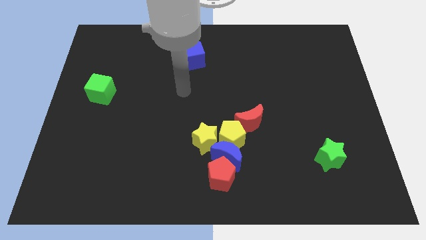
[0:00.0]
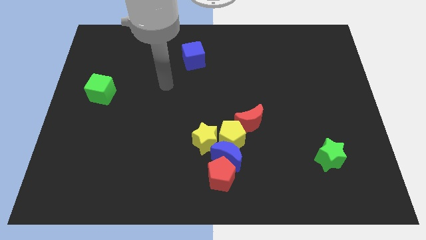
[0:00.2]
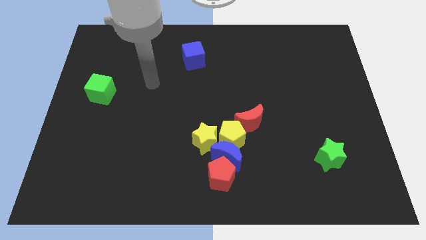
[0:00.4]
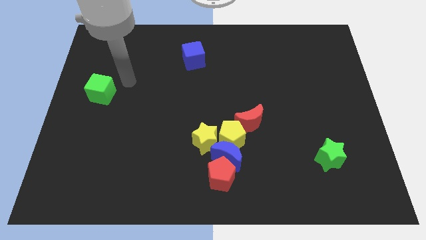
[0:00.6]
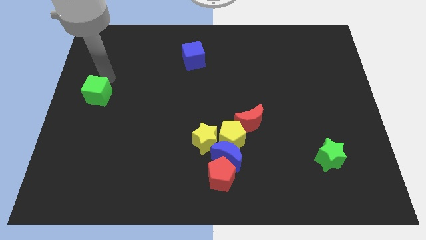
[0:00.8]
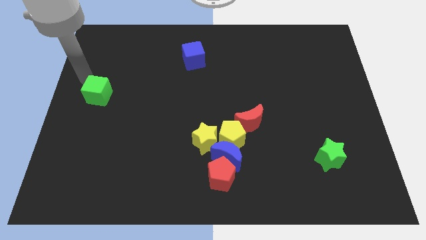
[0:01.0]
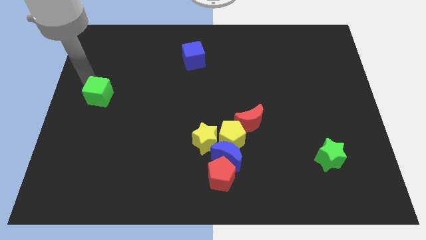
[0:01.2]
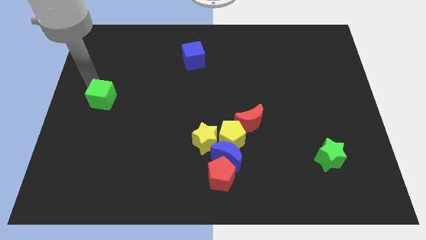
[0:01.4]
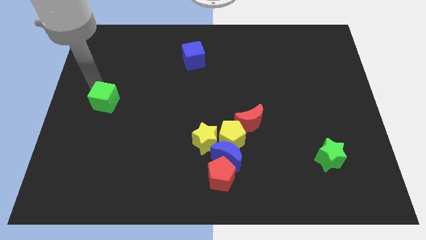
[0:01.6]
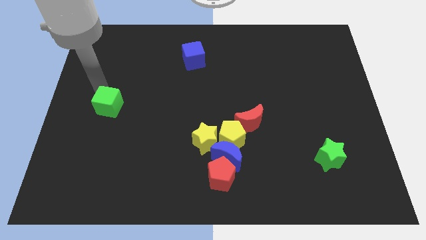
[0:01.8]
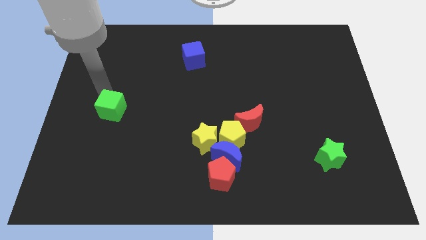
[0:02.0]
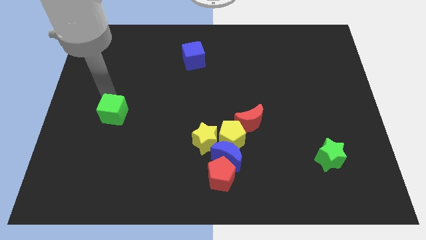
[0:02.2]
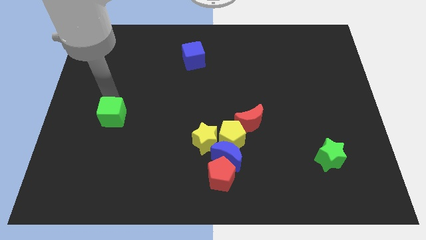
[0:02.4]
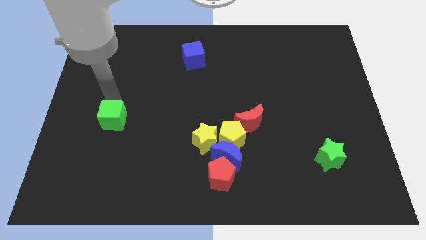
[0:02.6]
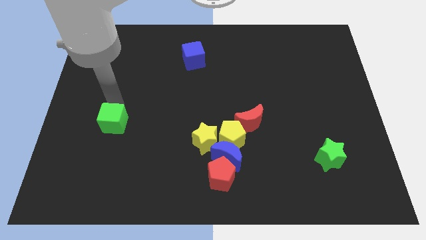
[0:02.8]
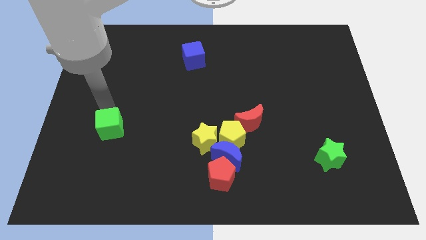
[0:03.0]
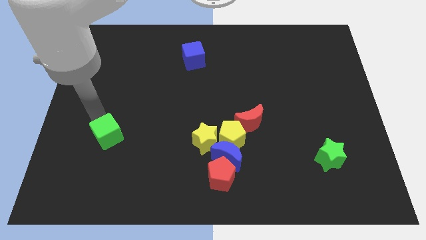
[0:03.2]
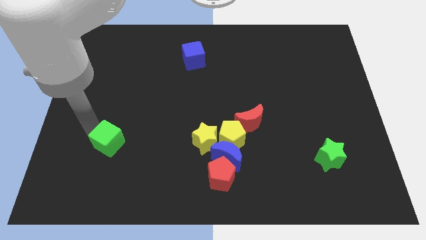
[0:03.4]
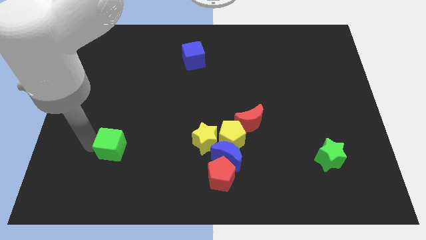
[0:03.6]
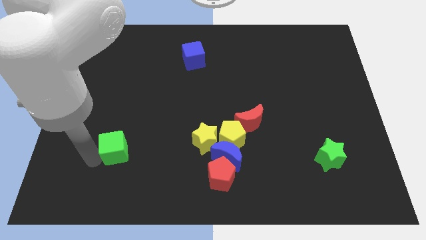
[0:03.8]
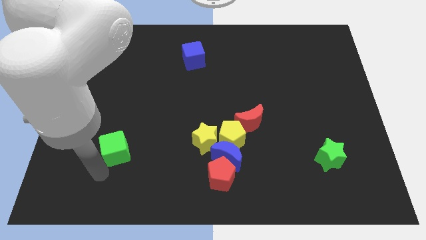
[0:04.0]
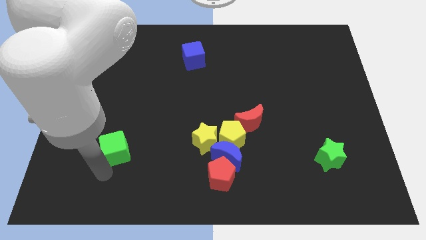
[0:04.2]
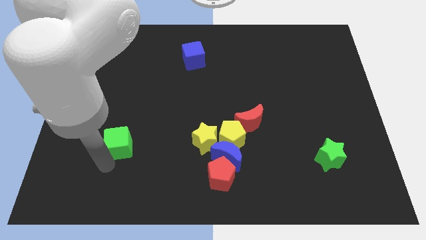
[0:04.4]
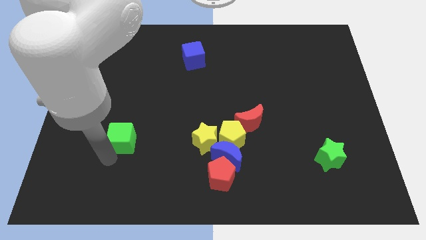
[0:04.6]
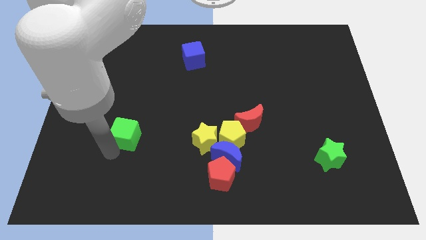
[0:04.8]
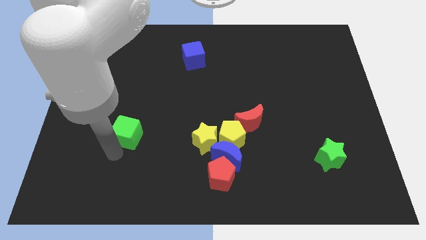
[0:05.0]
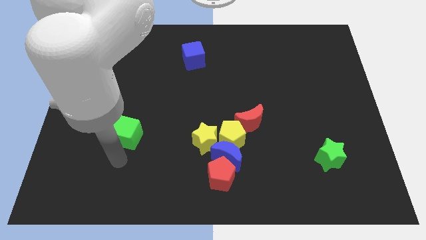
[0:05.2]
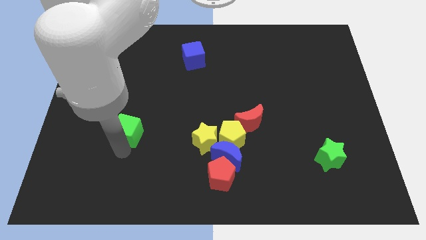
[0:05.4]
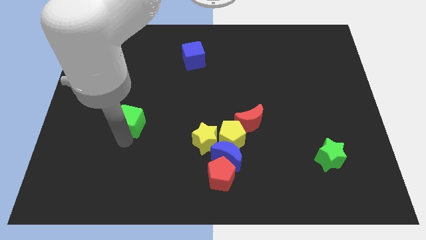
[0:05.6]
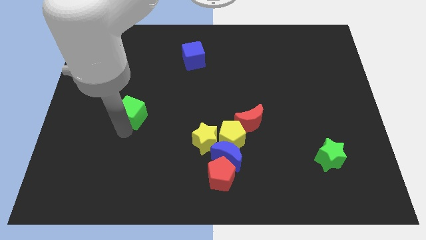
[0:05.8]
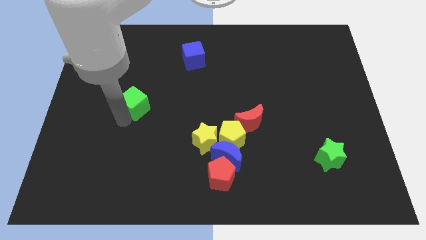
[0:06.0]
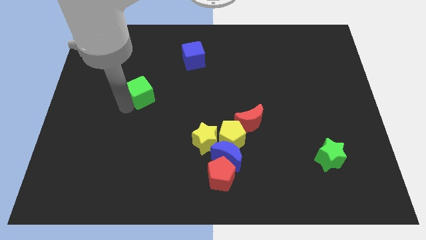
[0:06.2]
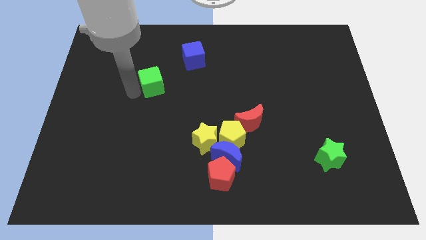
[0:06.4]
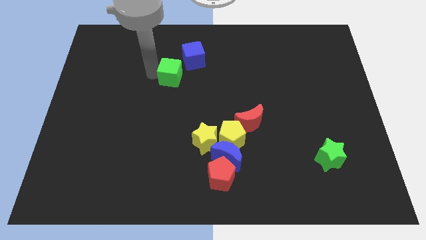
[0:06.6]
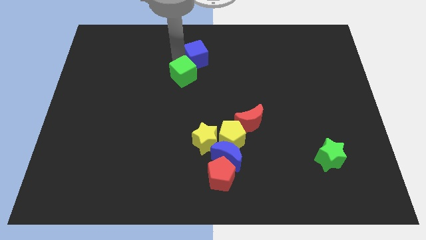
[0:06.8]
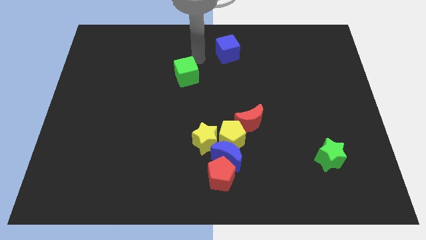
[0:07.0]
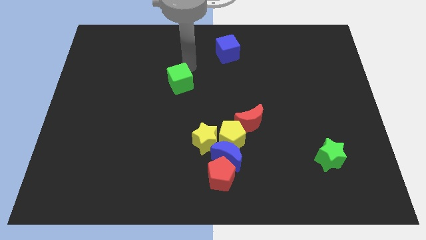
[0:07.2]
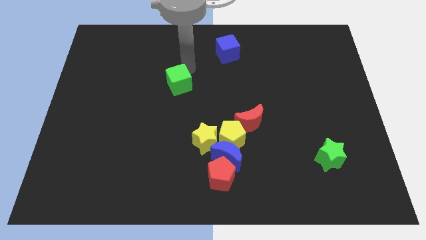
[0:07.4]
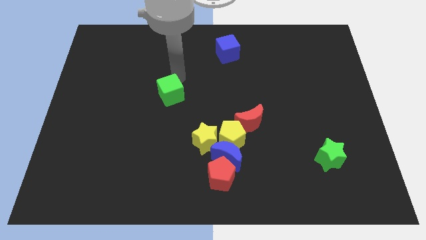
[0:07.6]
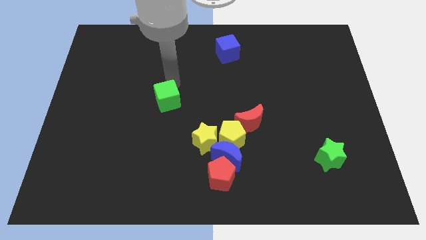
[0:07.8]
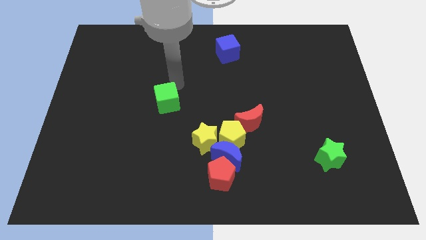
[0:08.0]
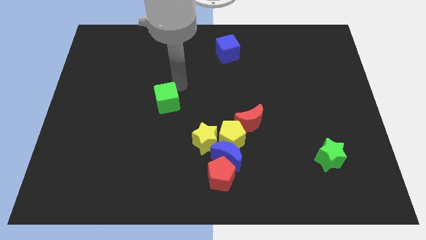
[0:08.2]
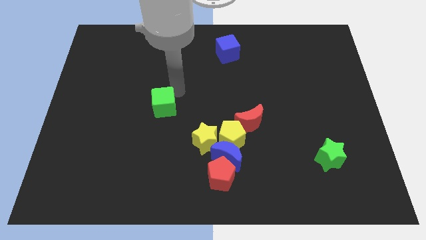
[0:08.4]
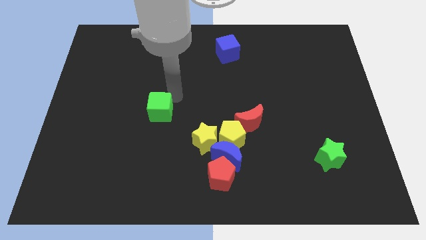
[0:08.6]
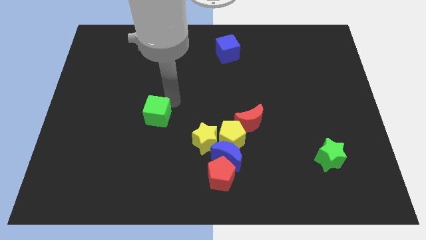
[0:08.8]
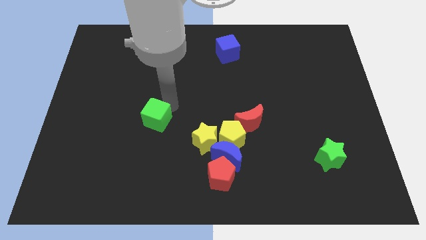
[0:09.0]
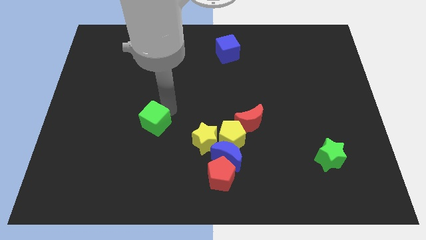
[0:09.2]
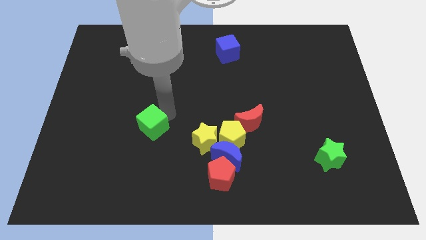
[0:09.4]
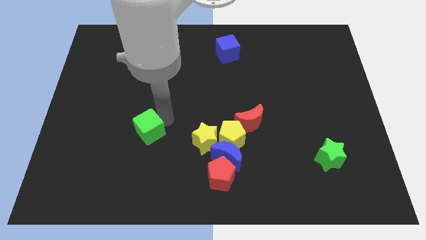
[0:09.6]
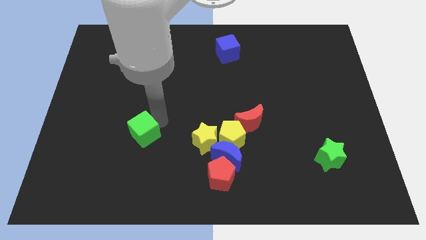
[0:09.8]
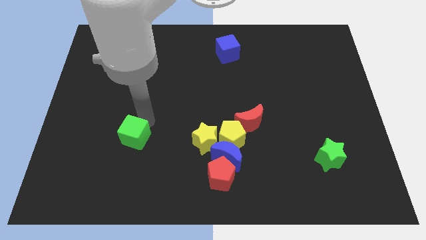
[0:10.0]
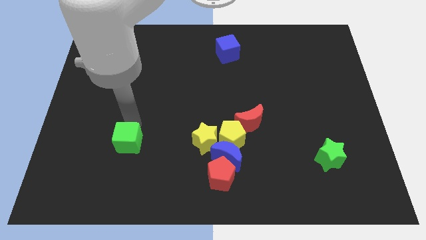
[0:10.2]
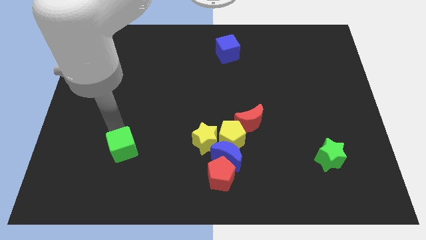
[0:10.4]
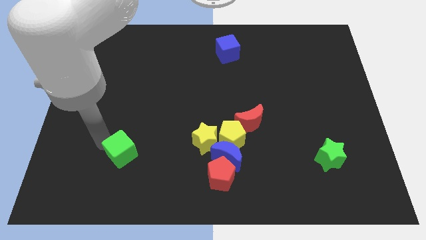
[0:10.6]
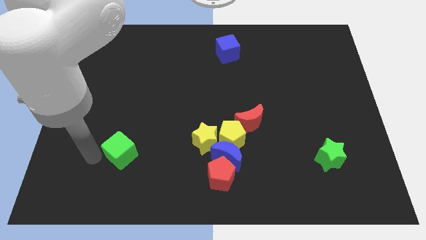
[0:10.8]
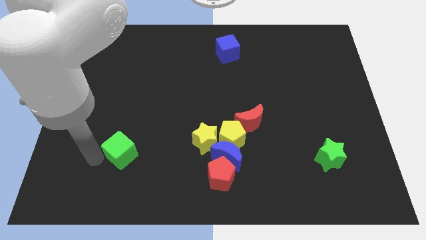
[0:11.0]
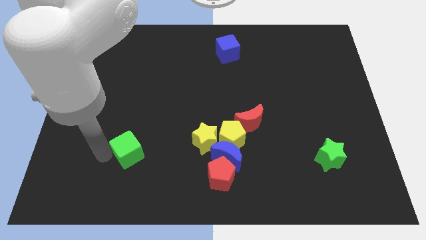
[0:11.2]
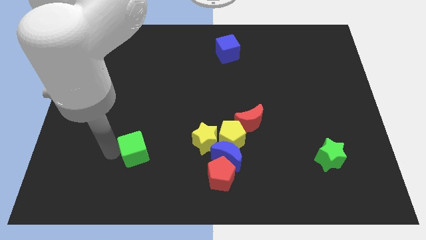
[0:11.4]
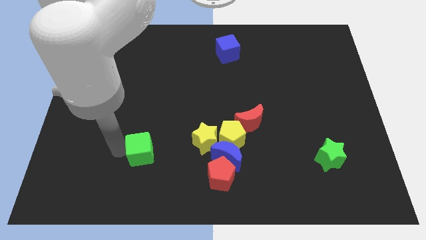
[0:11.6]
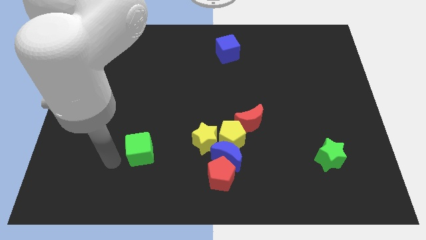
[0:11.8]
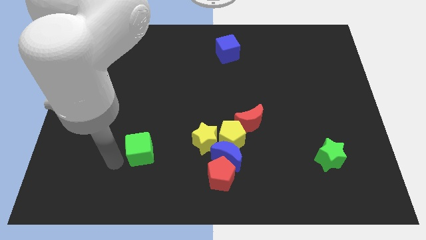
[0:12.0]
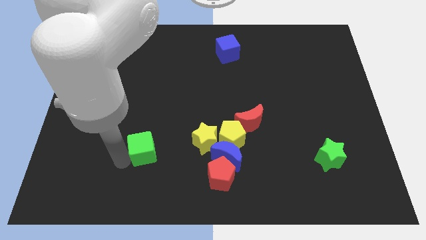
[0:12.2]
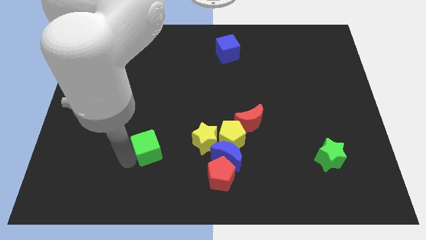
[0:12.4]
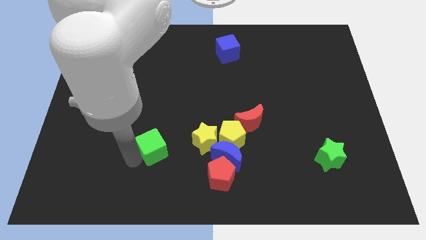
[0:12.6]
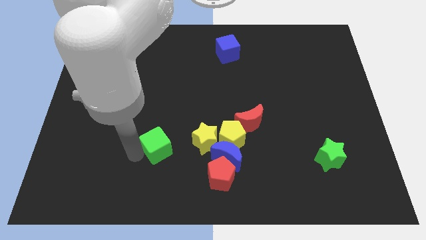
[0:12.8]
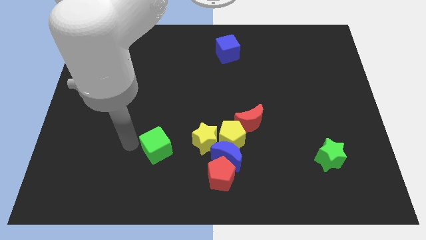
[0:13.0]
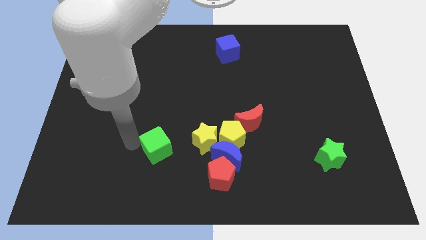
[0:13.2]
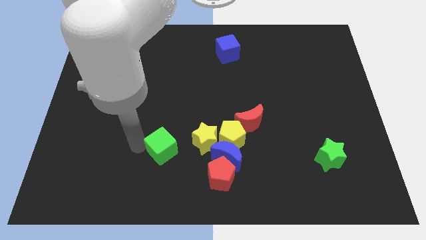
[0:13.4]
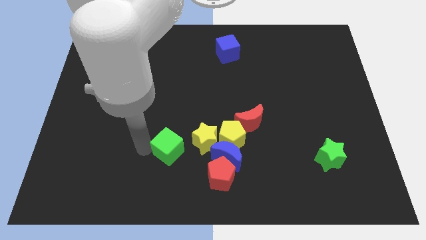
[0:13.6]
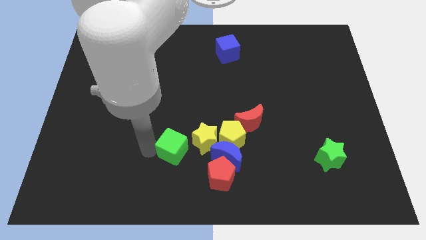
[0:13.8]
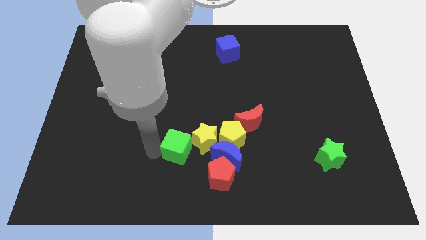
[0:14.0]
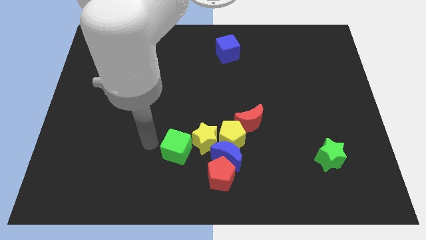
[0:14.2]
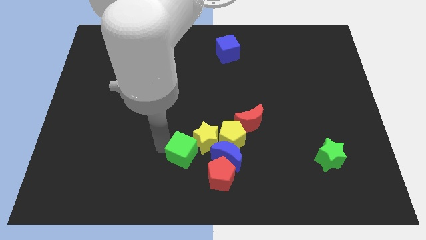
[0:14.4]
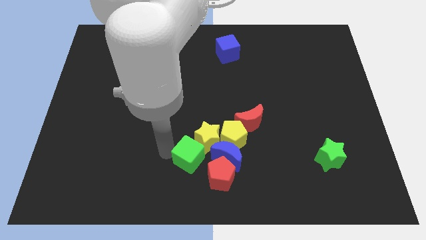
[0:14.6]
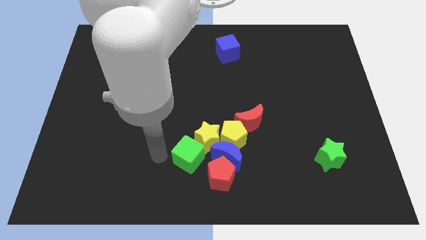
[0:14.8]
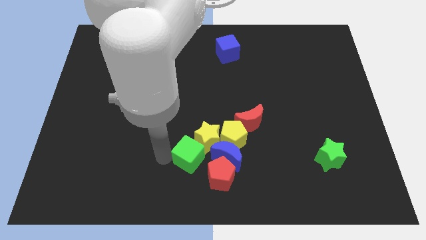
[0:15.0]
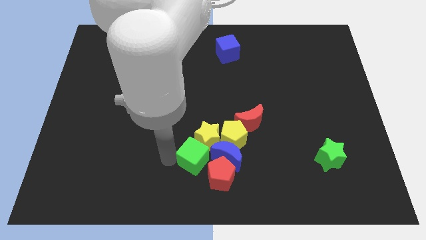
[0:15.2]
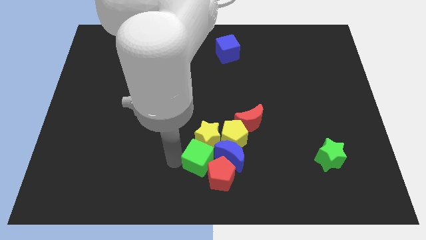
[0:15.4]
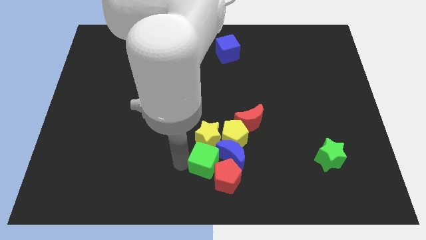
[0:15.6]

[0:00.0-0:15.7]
push the green cube towards the blue moon
